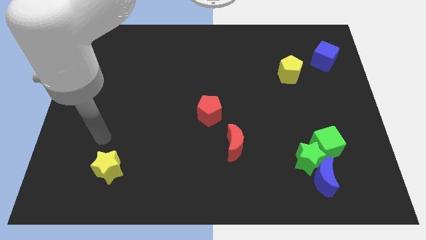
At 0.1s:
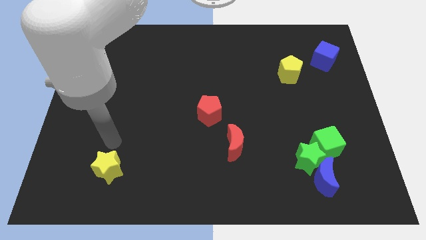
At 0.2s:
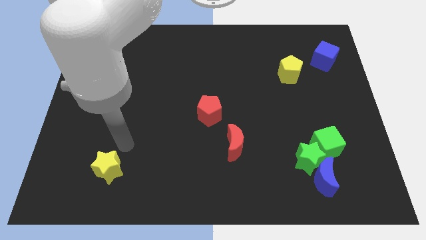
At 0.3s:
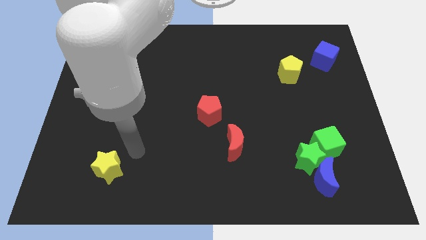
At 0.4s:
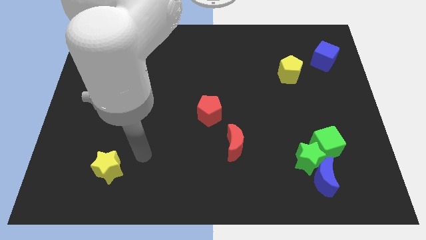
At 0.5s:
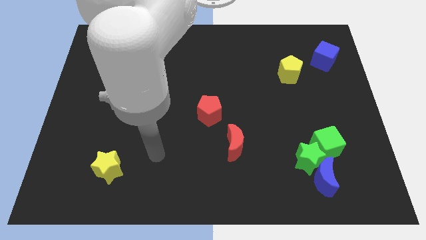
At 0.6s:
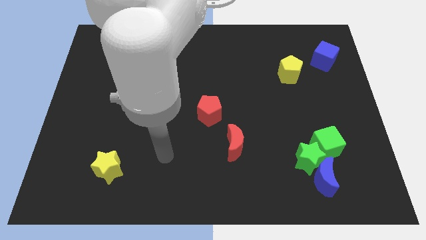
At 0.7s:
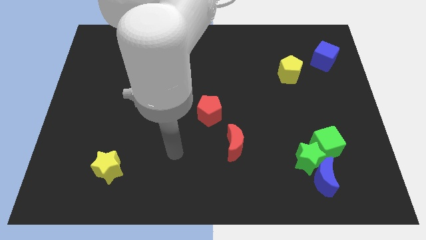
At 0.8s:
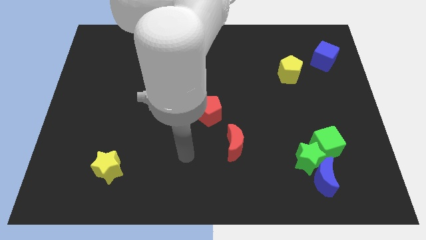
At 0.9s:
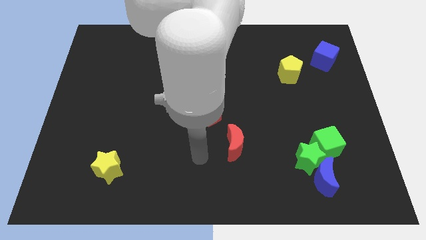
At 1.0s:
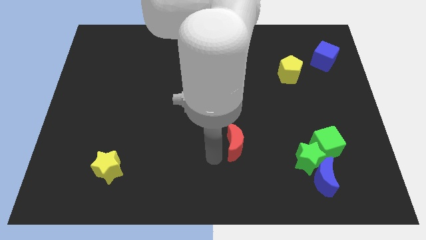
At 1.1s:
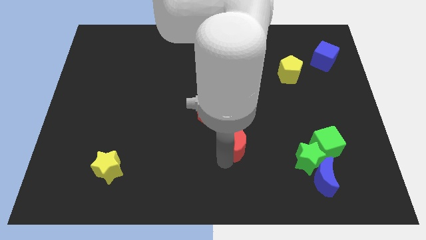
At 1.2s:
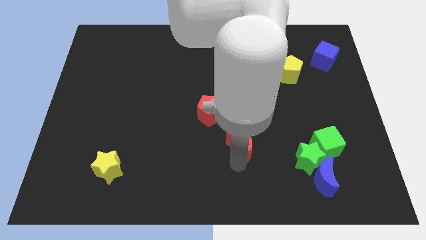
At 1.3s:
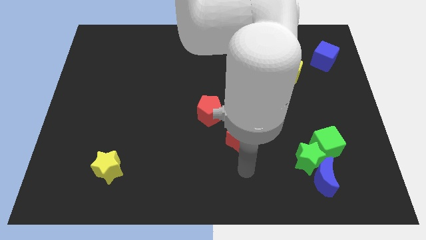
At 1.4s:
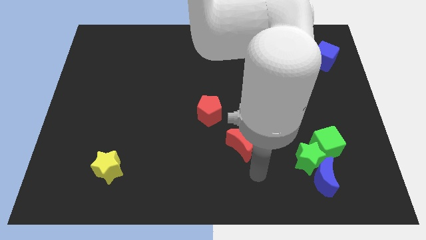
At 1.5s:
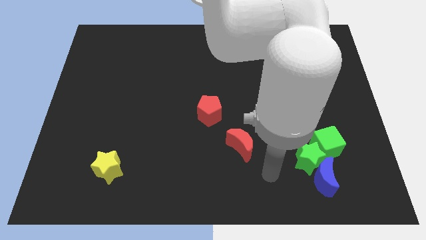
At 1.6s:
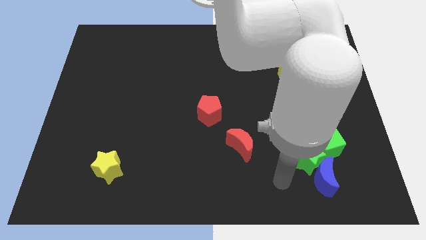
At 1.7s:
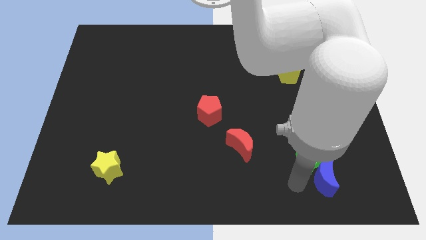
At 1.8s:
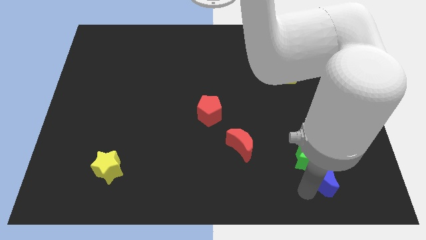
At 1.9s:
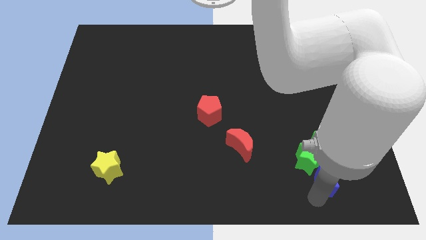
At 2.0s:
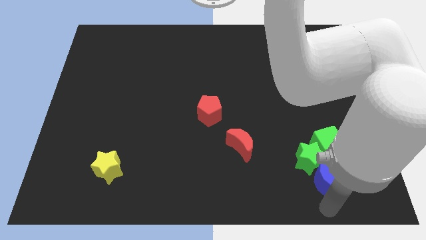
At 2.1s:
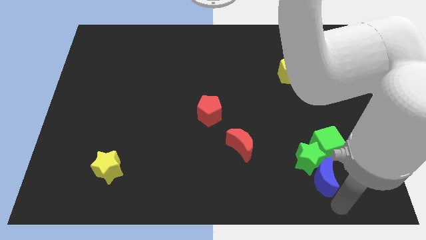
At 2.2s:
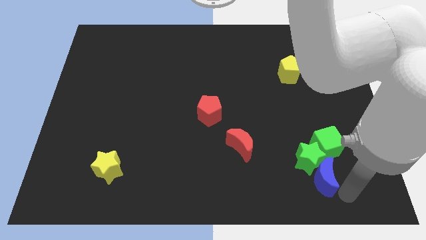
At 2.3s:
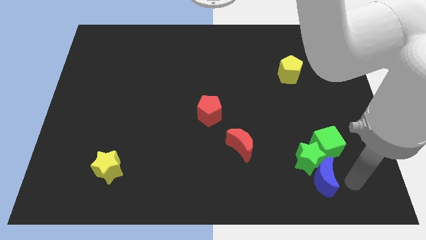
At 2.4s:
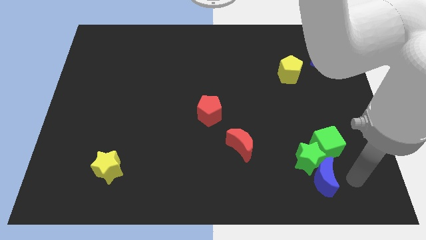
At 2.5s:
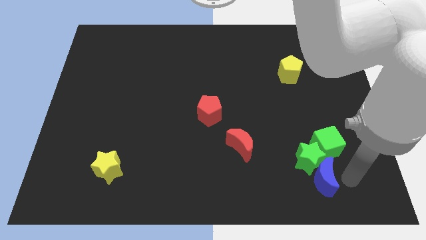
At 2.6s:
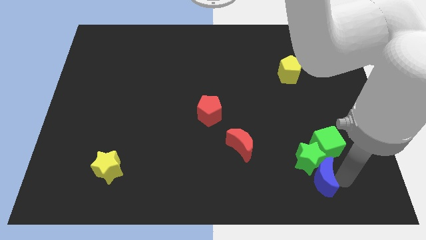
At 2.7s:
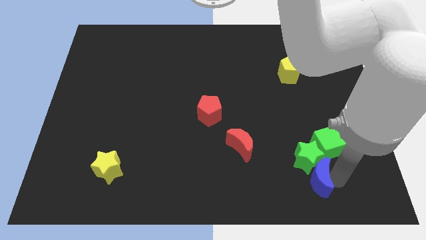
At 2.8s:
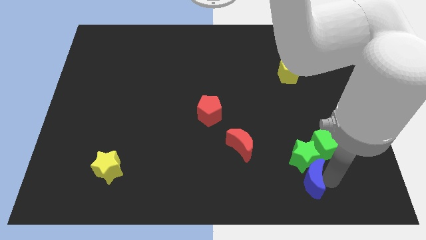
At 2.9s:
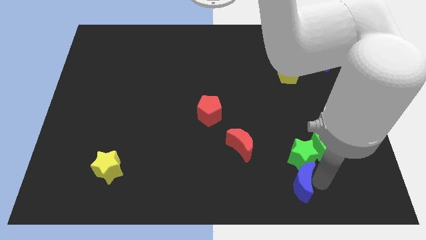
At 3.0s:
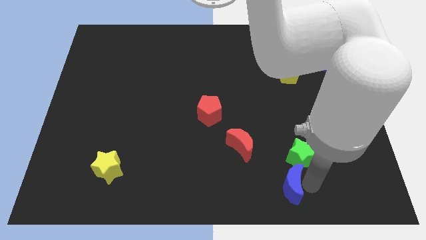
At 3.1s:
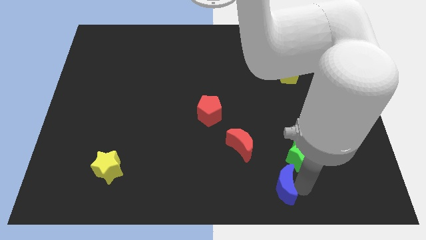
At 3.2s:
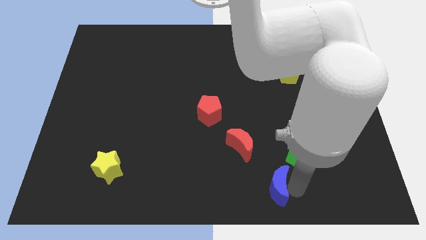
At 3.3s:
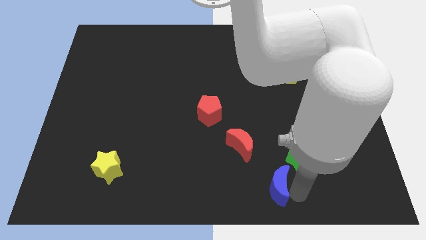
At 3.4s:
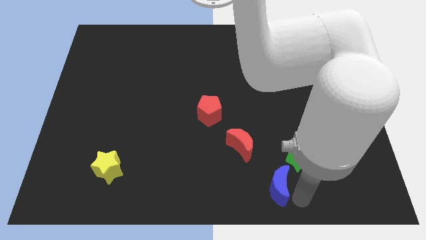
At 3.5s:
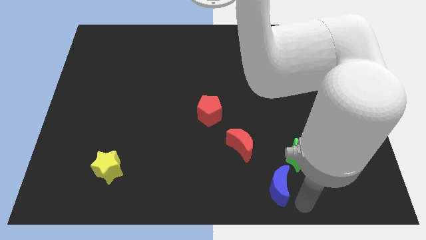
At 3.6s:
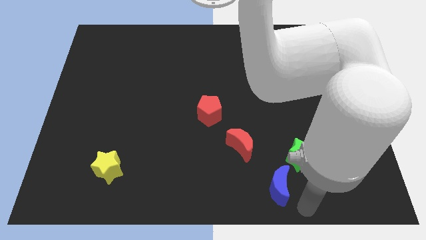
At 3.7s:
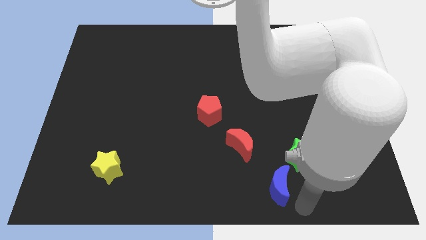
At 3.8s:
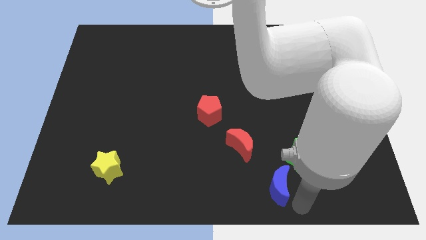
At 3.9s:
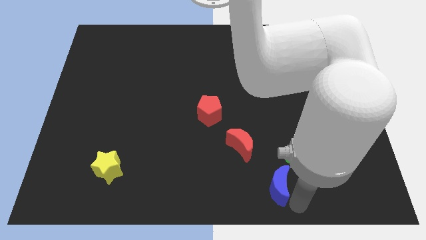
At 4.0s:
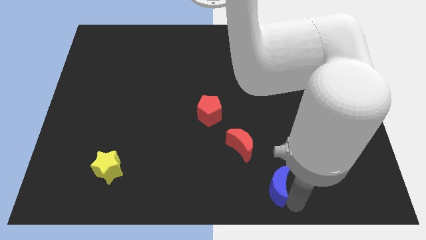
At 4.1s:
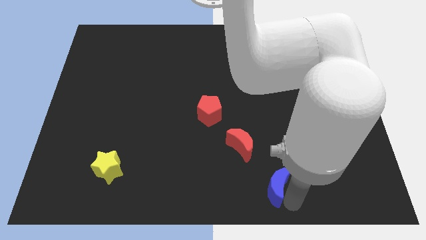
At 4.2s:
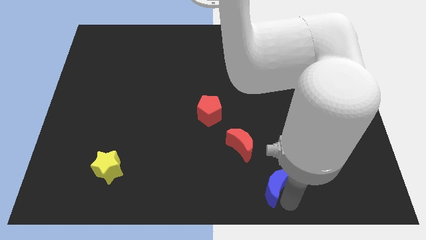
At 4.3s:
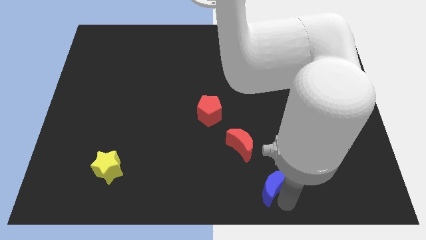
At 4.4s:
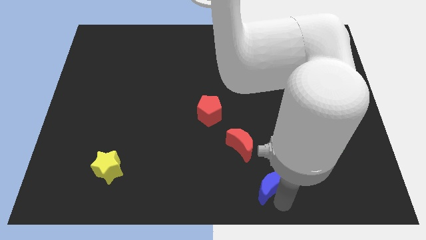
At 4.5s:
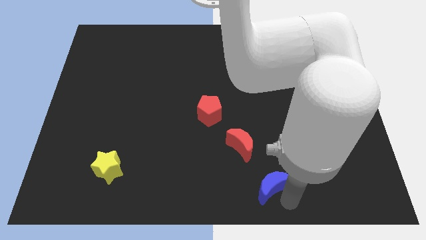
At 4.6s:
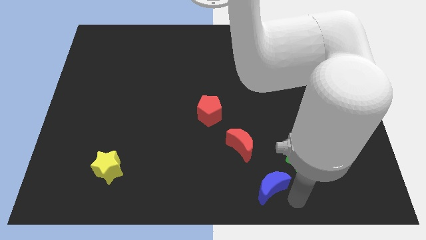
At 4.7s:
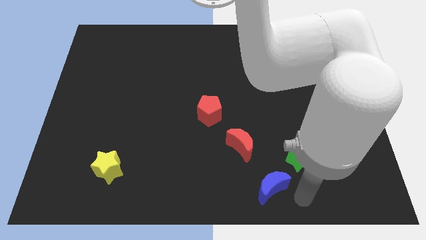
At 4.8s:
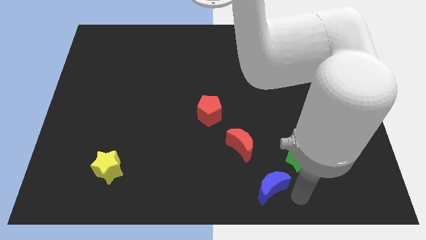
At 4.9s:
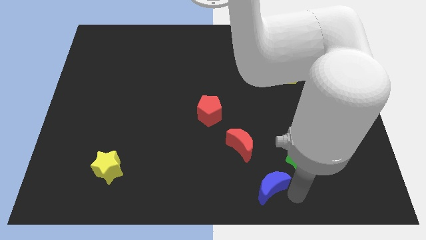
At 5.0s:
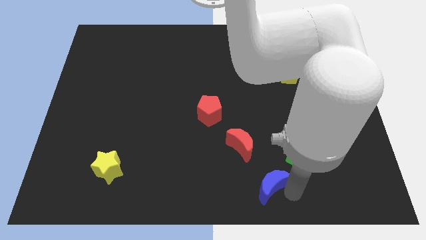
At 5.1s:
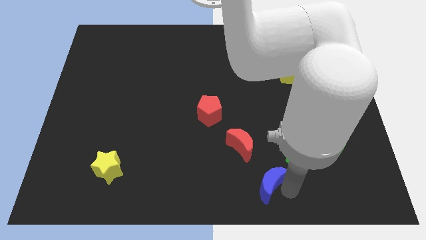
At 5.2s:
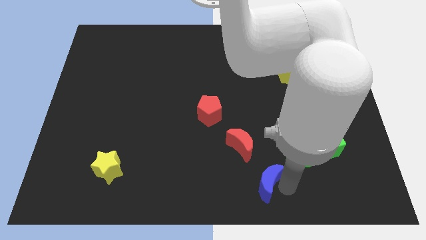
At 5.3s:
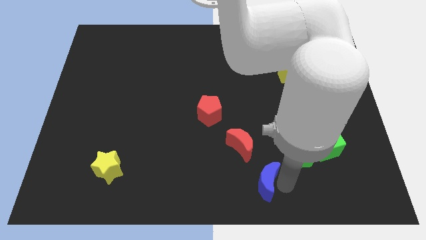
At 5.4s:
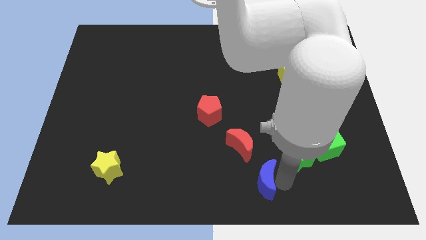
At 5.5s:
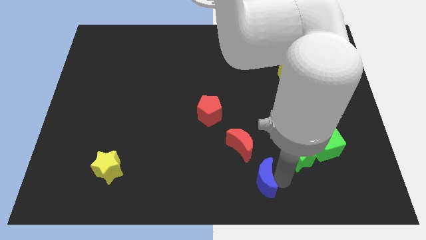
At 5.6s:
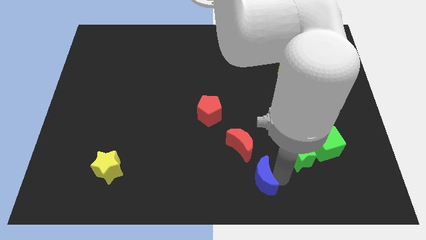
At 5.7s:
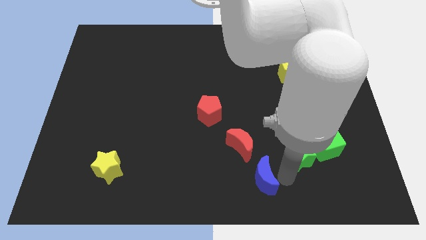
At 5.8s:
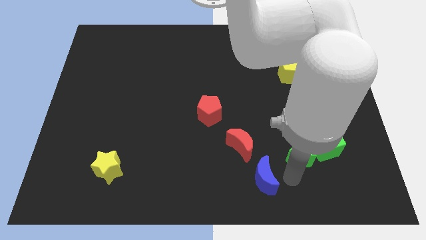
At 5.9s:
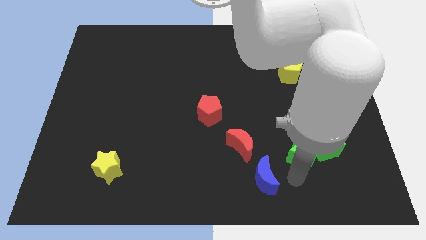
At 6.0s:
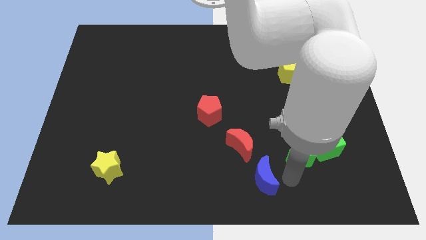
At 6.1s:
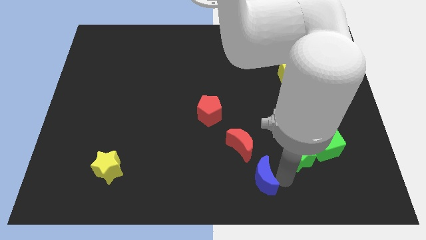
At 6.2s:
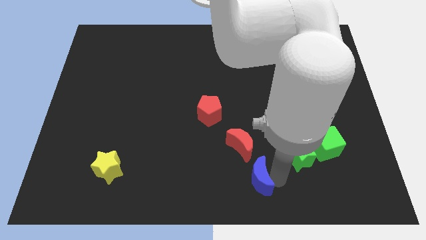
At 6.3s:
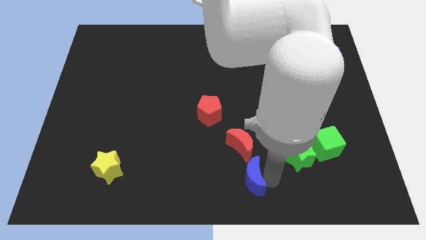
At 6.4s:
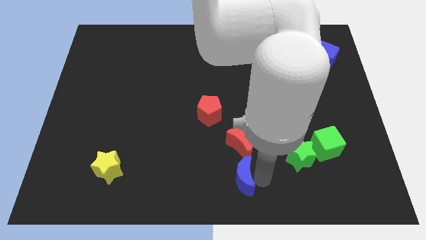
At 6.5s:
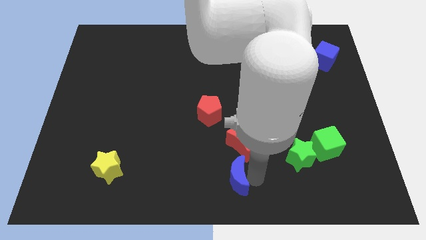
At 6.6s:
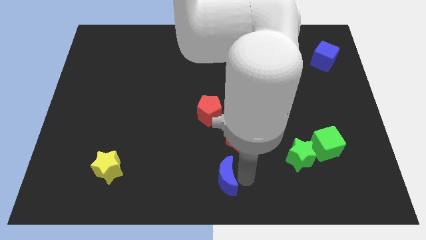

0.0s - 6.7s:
push the blue moon left

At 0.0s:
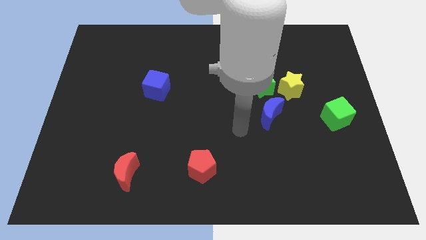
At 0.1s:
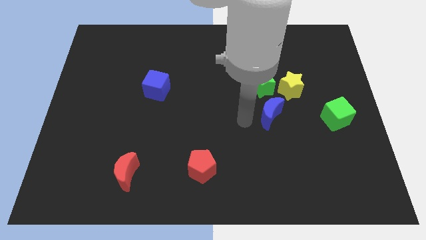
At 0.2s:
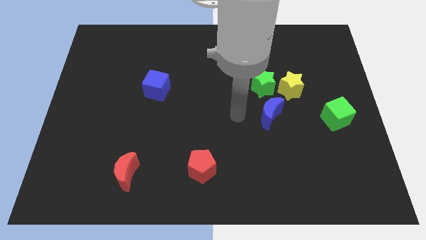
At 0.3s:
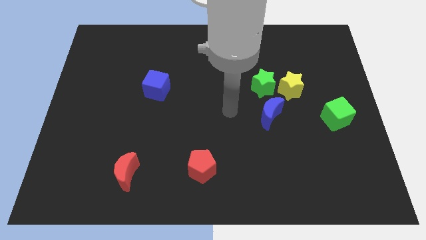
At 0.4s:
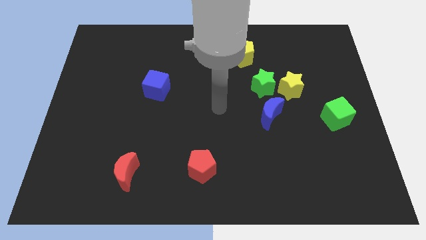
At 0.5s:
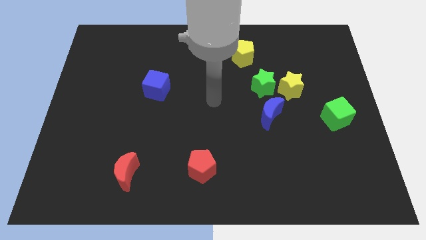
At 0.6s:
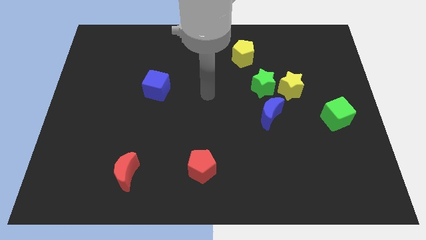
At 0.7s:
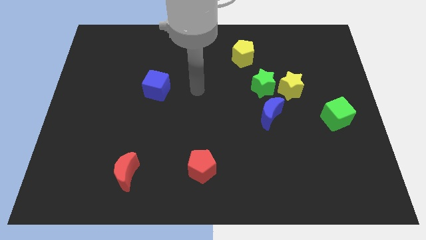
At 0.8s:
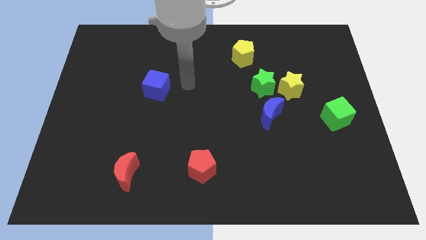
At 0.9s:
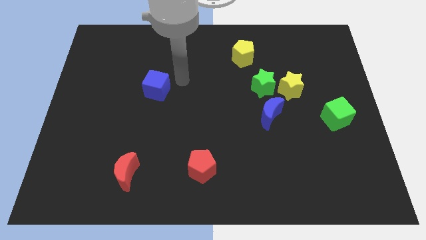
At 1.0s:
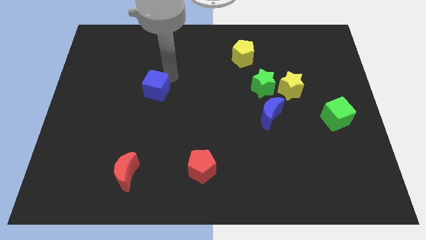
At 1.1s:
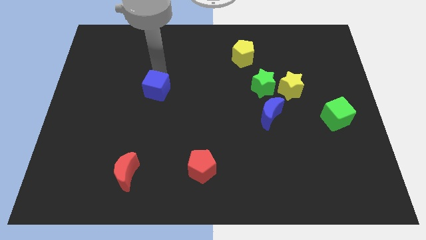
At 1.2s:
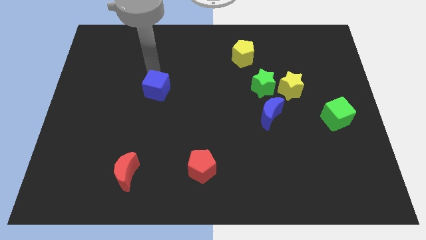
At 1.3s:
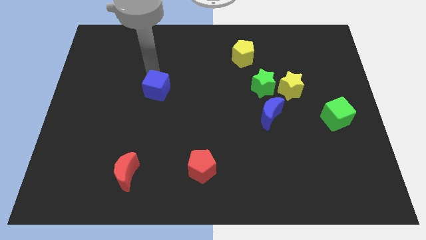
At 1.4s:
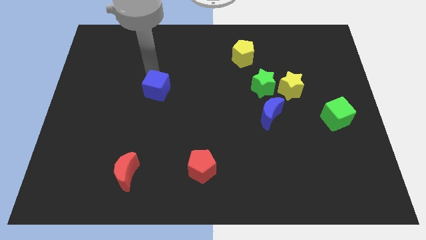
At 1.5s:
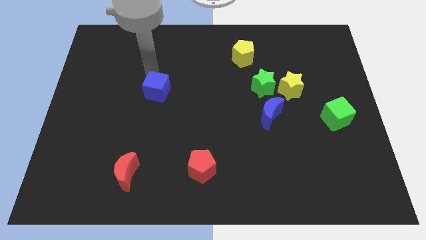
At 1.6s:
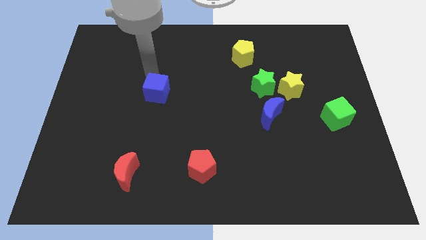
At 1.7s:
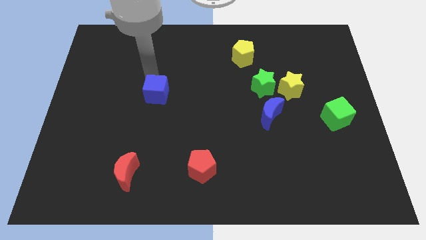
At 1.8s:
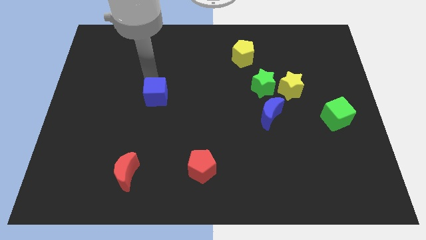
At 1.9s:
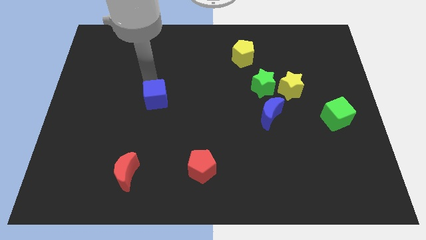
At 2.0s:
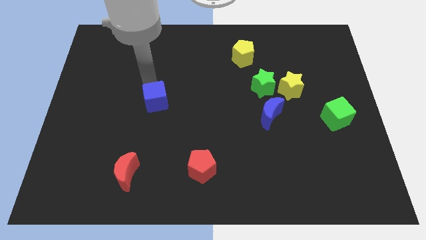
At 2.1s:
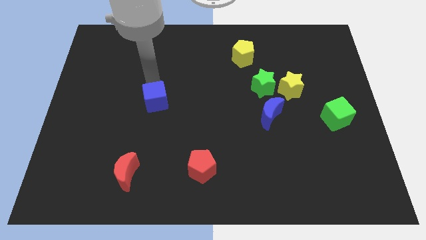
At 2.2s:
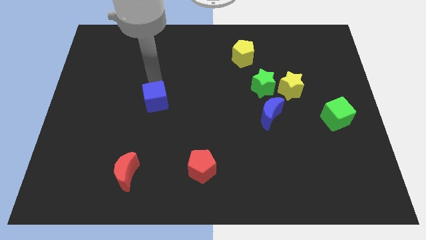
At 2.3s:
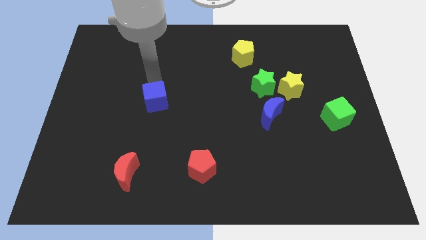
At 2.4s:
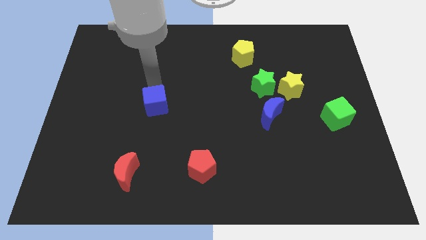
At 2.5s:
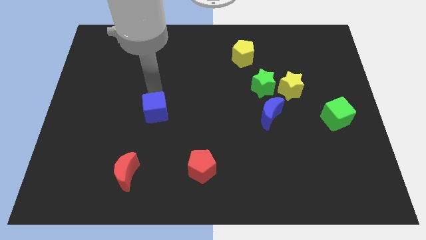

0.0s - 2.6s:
slightly push the blue cube down
